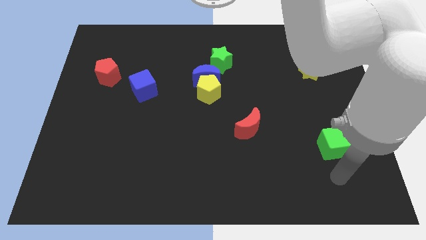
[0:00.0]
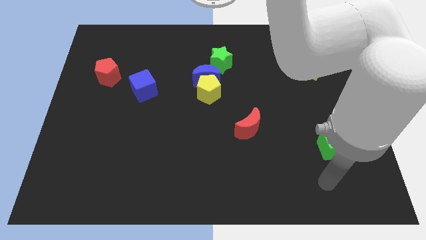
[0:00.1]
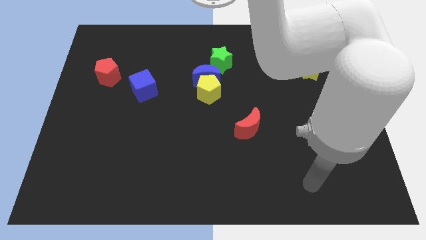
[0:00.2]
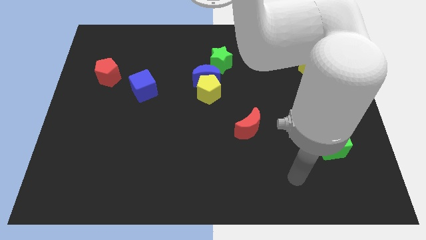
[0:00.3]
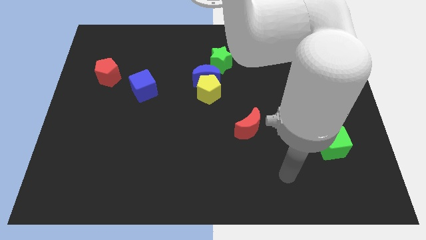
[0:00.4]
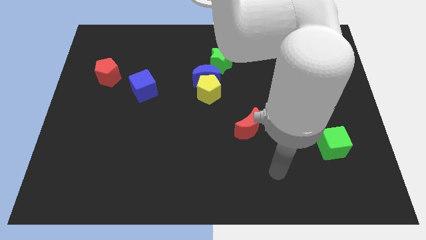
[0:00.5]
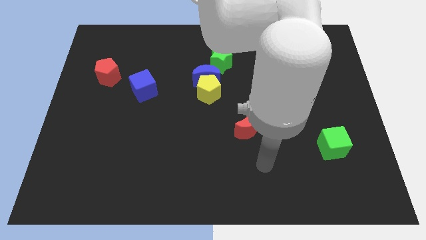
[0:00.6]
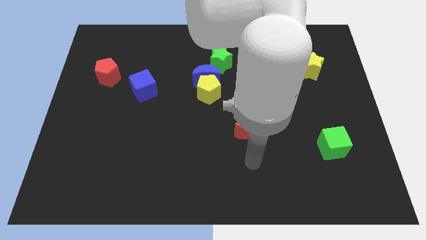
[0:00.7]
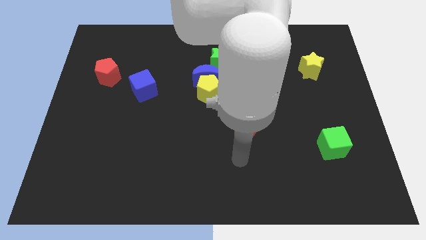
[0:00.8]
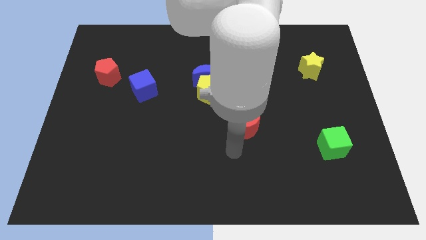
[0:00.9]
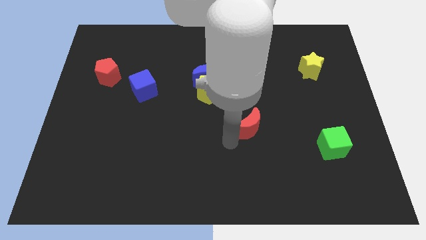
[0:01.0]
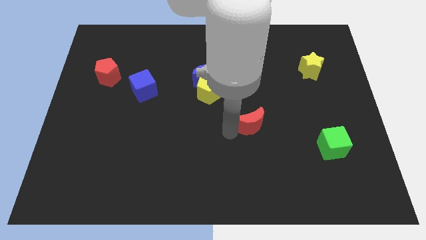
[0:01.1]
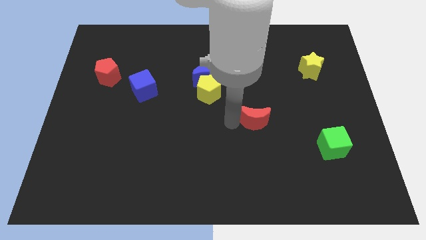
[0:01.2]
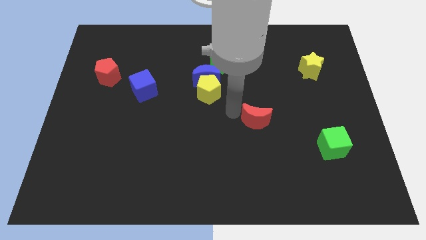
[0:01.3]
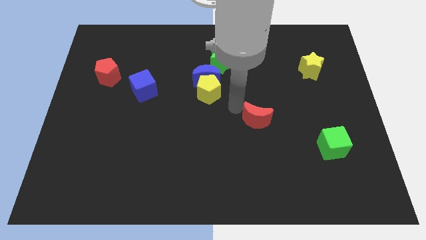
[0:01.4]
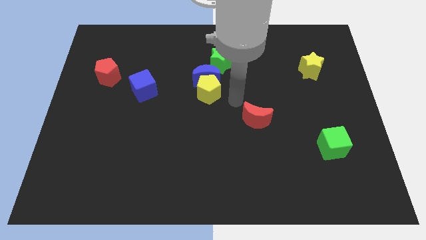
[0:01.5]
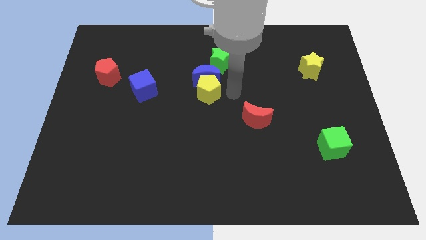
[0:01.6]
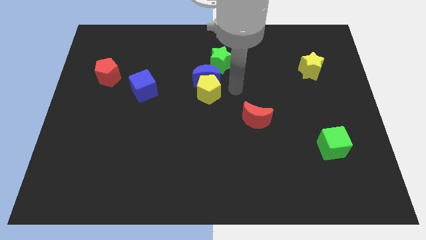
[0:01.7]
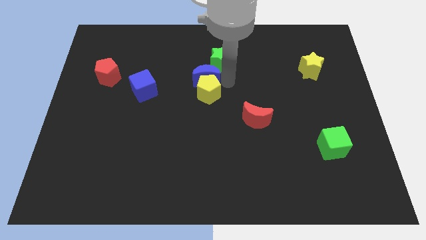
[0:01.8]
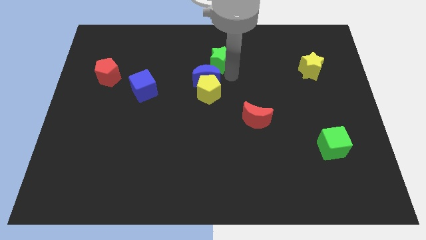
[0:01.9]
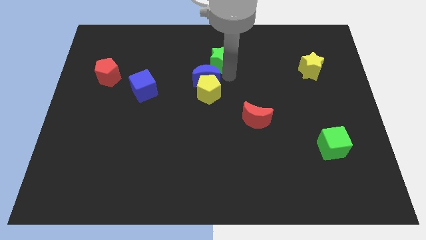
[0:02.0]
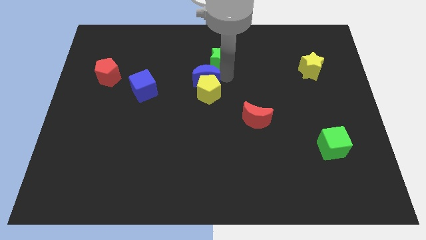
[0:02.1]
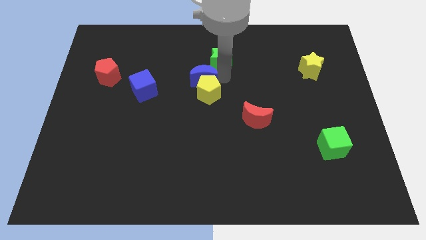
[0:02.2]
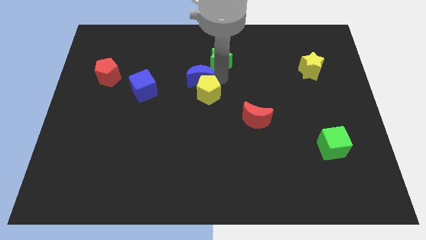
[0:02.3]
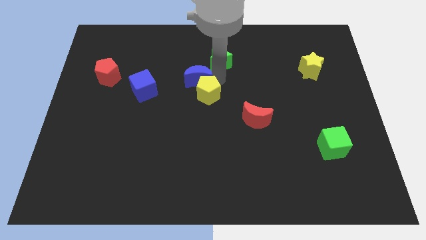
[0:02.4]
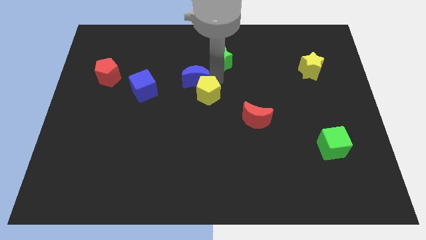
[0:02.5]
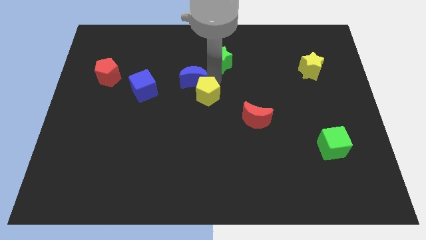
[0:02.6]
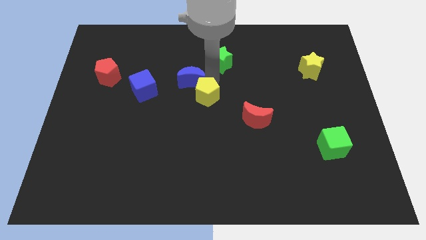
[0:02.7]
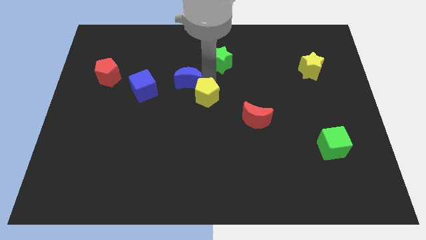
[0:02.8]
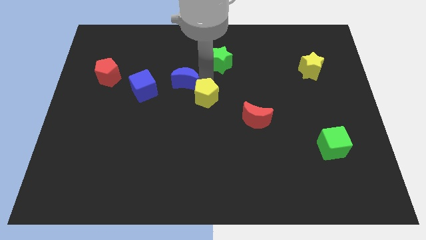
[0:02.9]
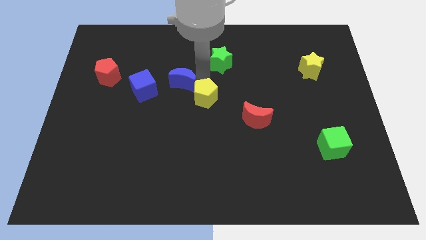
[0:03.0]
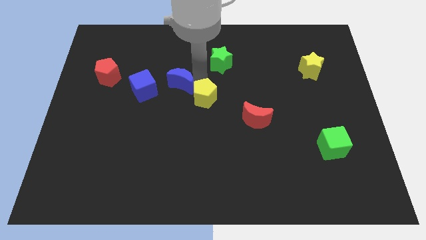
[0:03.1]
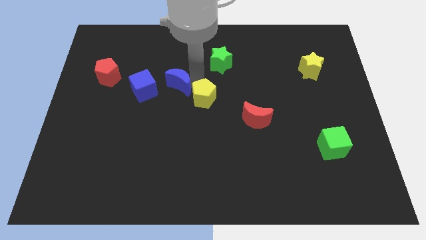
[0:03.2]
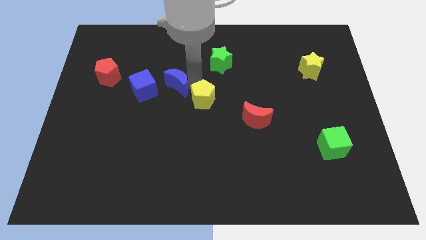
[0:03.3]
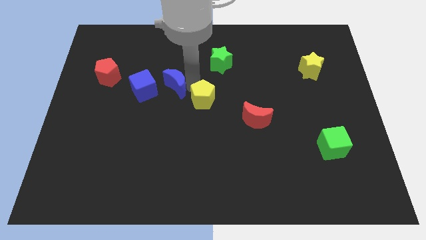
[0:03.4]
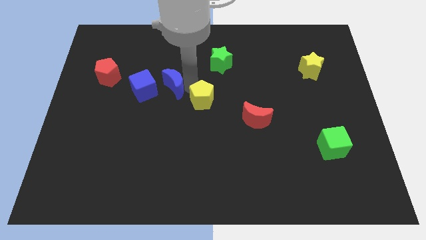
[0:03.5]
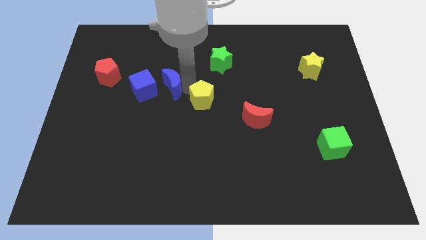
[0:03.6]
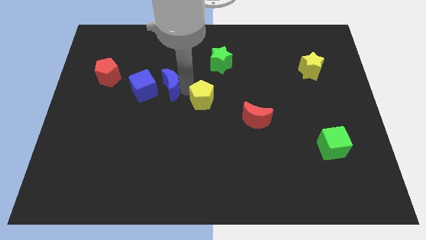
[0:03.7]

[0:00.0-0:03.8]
move the blue moon away from the yellow pentagon and green star

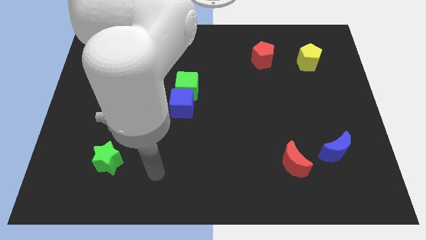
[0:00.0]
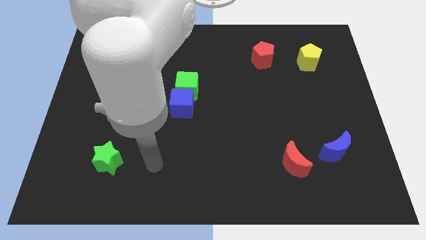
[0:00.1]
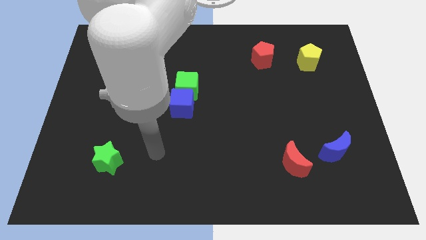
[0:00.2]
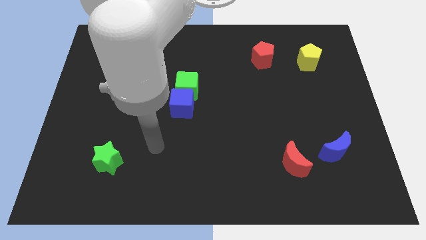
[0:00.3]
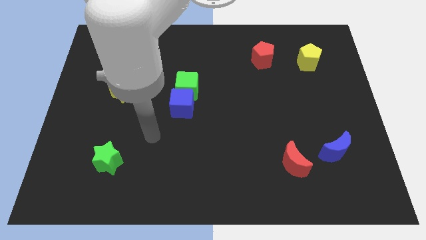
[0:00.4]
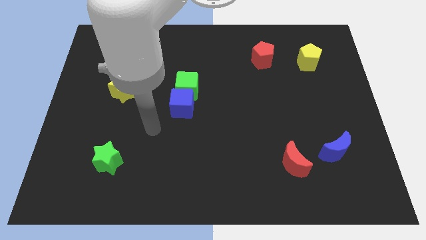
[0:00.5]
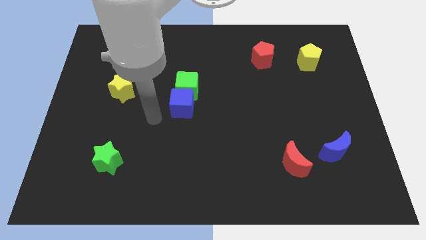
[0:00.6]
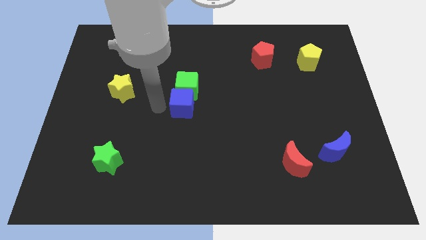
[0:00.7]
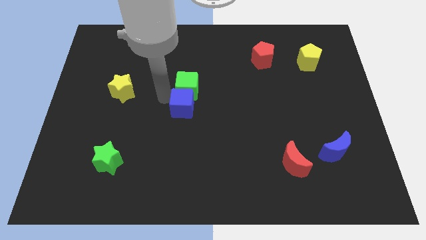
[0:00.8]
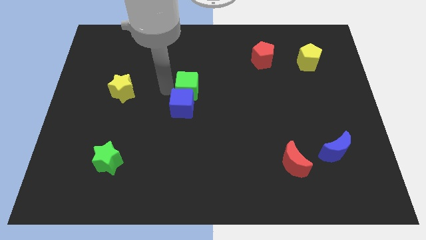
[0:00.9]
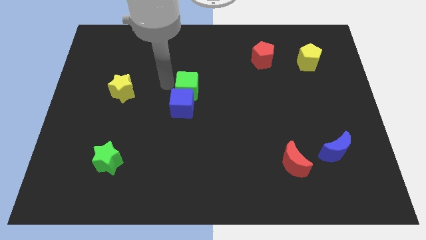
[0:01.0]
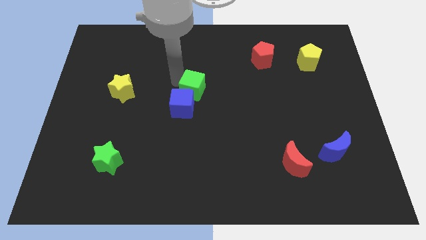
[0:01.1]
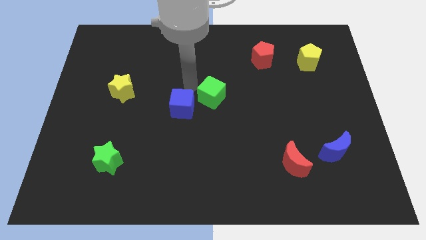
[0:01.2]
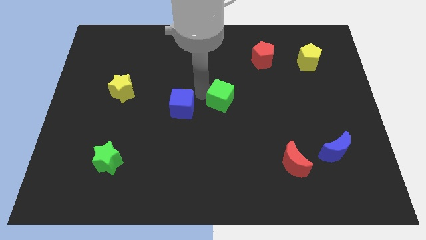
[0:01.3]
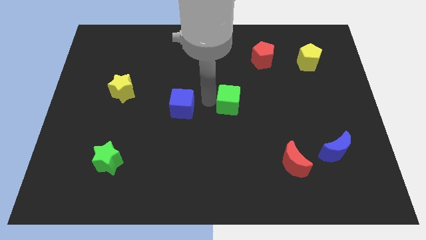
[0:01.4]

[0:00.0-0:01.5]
move the blue cube away from the green cube

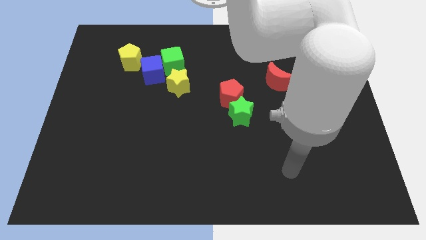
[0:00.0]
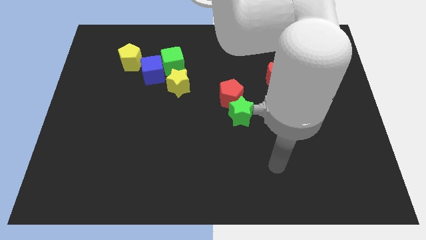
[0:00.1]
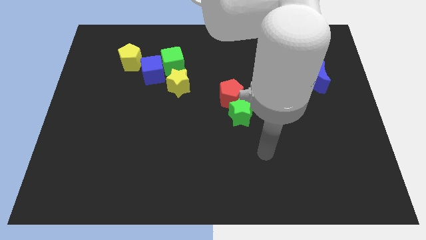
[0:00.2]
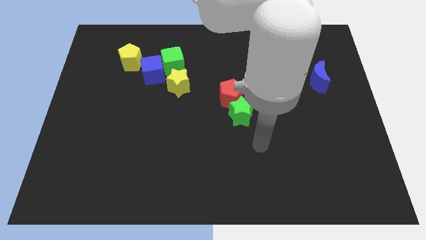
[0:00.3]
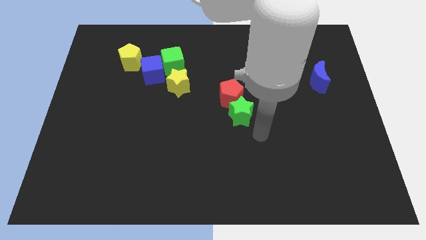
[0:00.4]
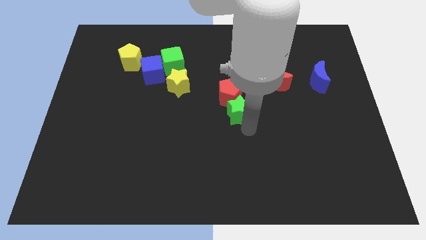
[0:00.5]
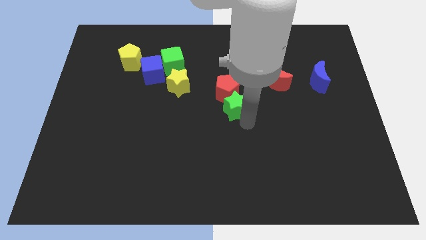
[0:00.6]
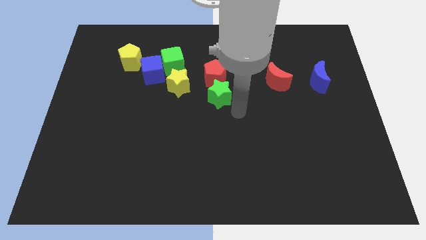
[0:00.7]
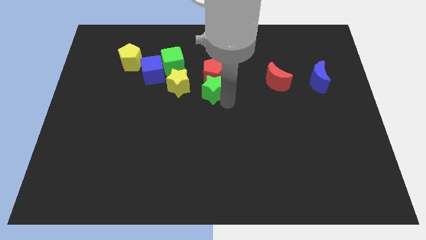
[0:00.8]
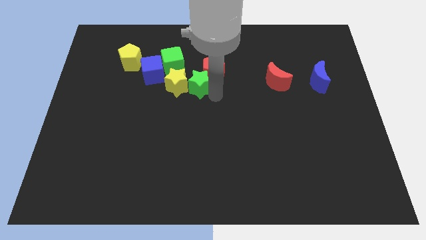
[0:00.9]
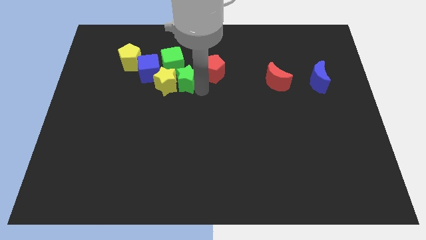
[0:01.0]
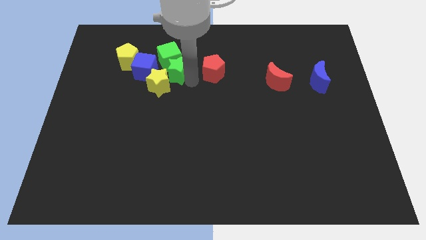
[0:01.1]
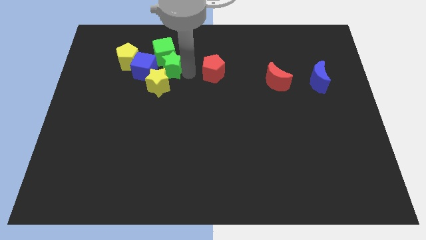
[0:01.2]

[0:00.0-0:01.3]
move the red pentagon away from the green star

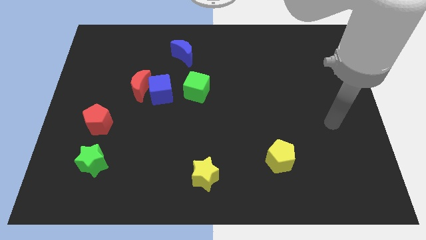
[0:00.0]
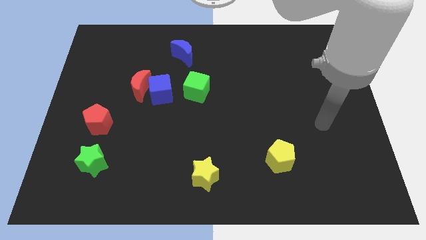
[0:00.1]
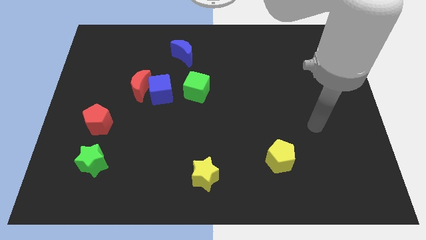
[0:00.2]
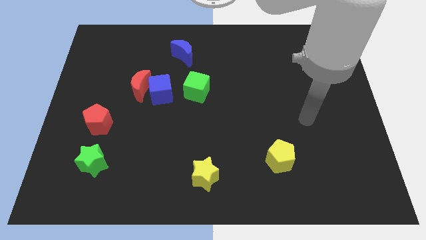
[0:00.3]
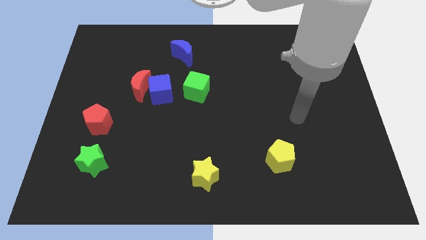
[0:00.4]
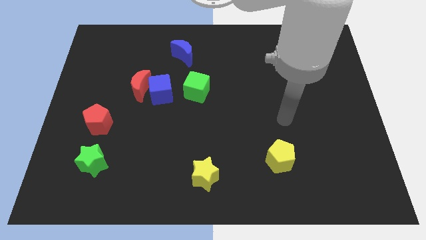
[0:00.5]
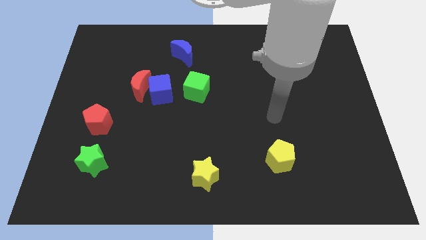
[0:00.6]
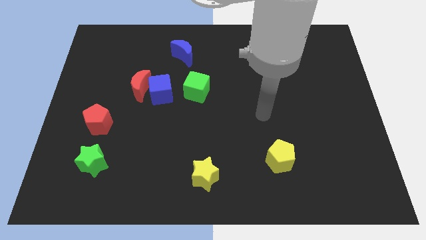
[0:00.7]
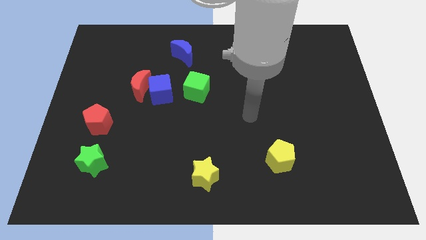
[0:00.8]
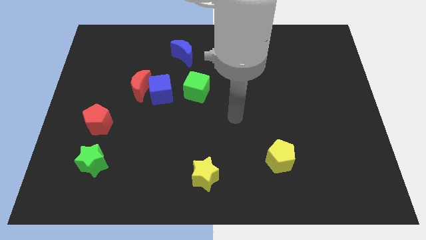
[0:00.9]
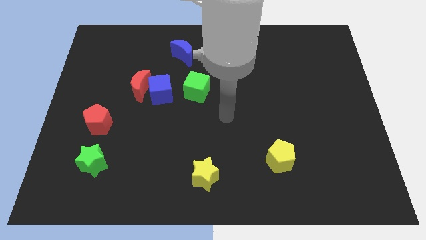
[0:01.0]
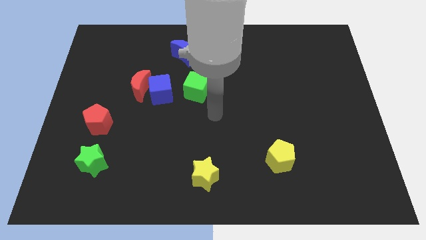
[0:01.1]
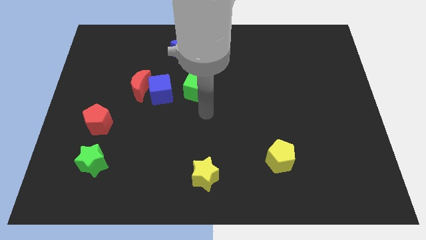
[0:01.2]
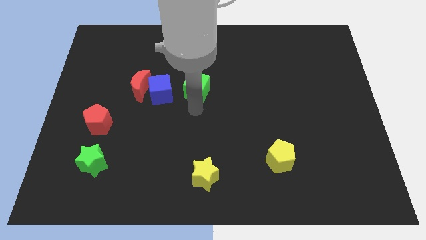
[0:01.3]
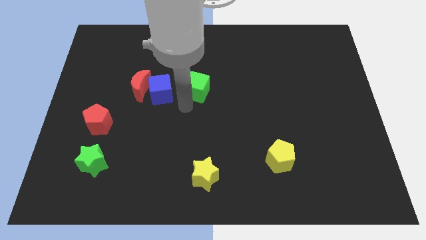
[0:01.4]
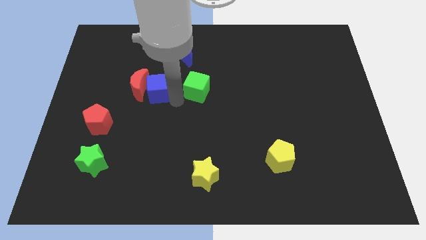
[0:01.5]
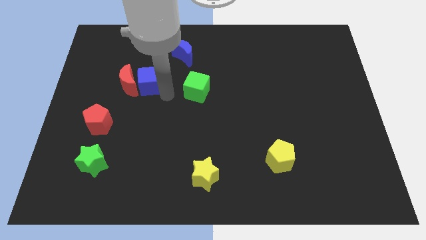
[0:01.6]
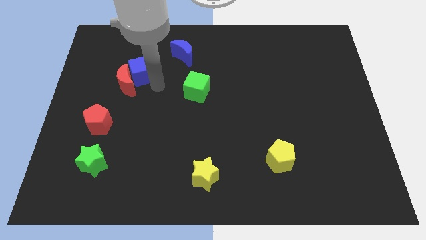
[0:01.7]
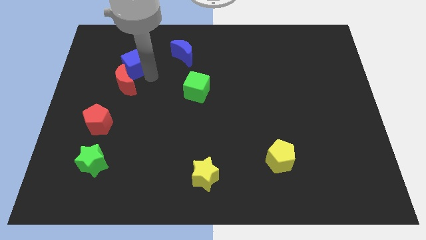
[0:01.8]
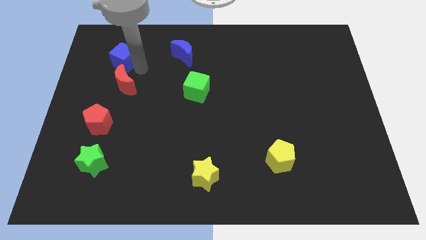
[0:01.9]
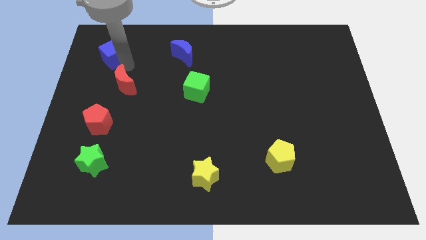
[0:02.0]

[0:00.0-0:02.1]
pull the red moon apart from the blue cube

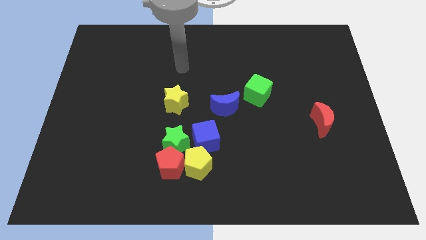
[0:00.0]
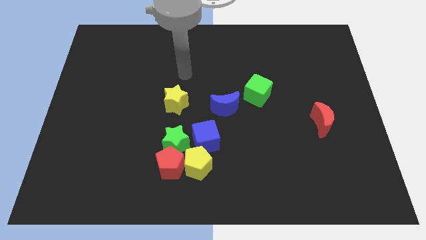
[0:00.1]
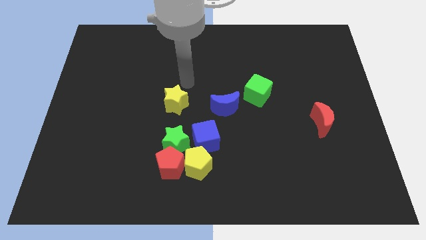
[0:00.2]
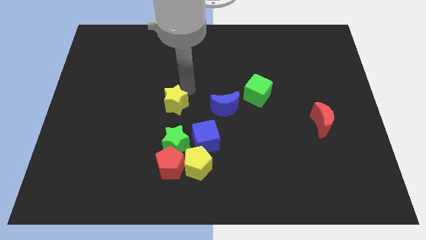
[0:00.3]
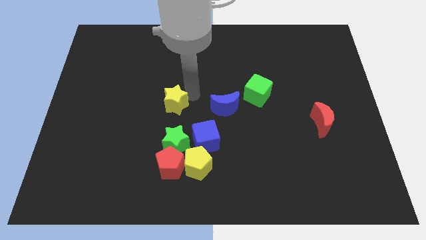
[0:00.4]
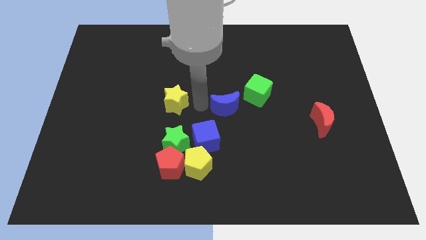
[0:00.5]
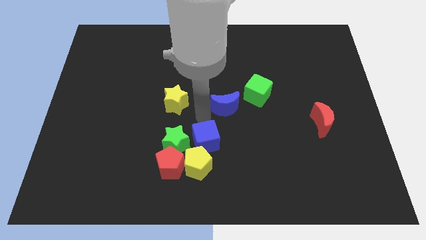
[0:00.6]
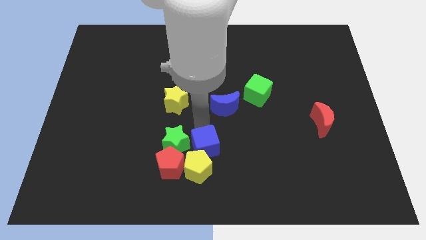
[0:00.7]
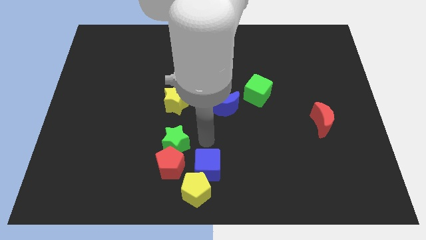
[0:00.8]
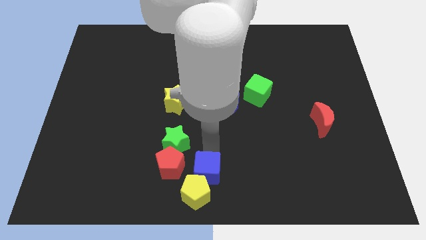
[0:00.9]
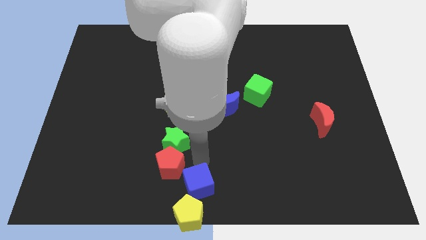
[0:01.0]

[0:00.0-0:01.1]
separate the green star from the group of blocks
